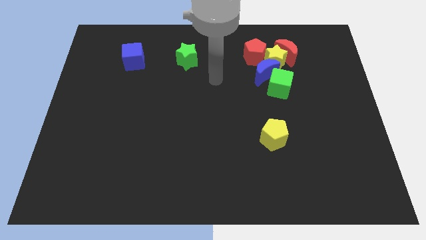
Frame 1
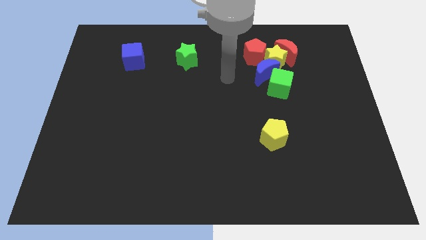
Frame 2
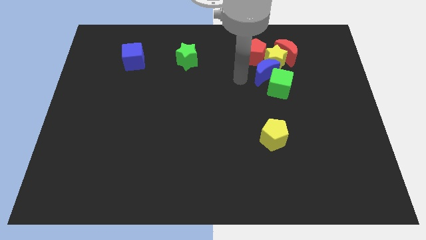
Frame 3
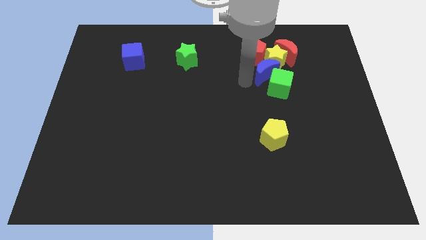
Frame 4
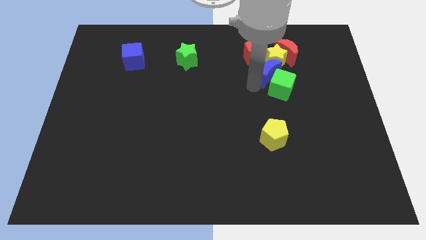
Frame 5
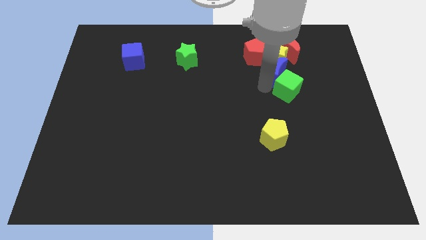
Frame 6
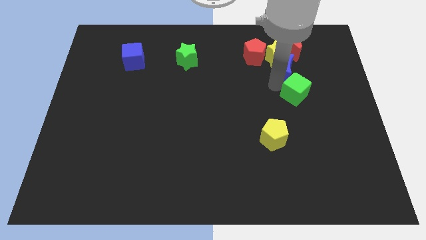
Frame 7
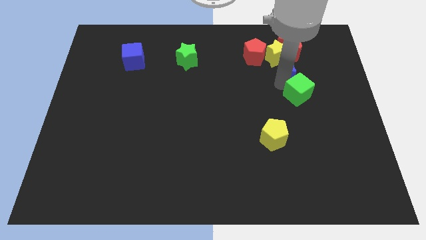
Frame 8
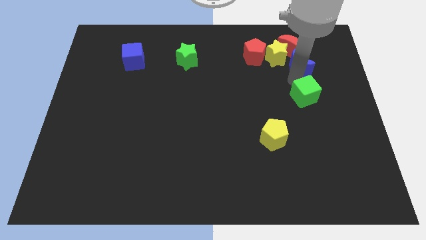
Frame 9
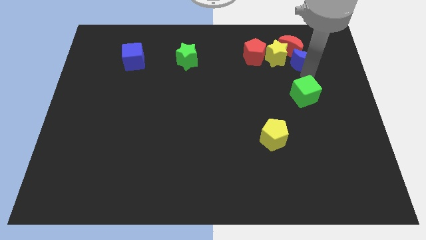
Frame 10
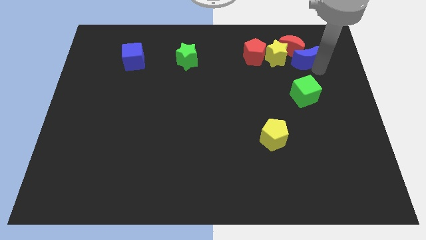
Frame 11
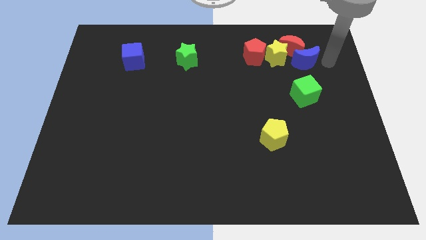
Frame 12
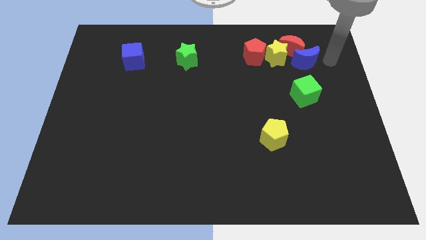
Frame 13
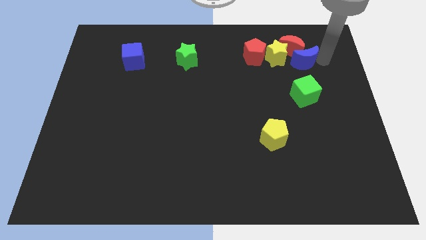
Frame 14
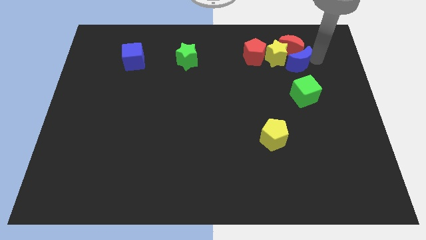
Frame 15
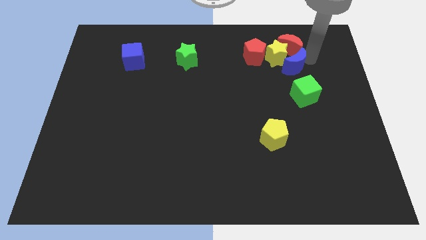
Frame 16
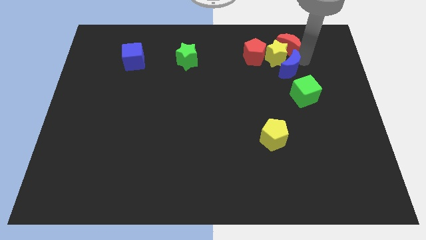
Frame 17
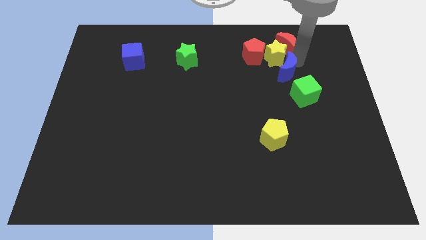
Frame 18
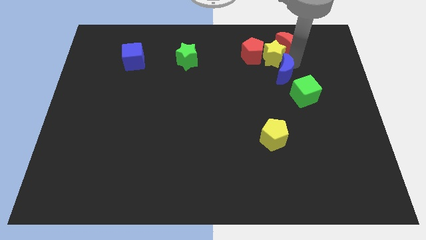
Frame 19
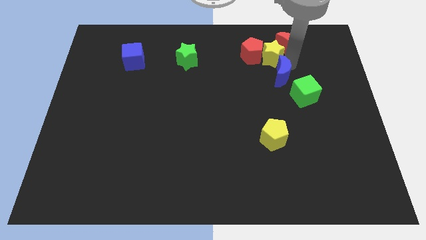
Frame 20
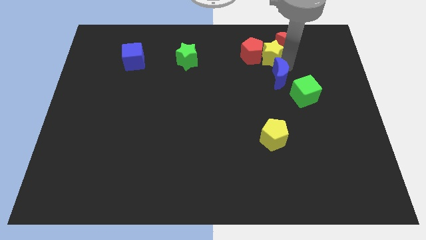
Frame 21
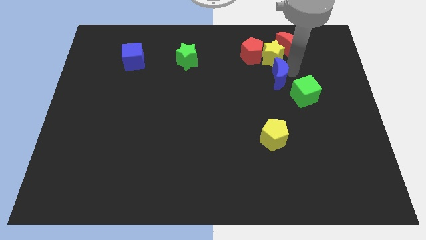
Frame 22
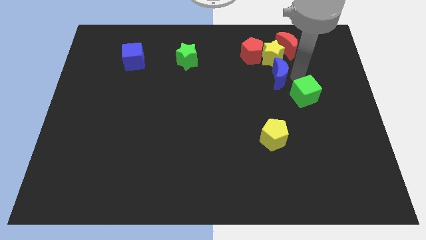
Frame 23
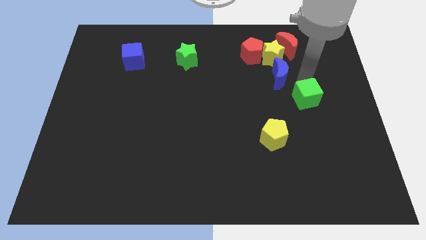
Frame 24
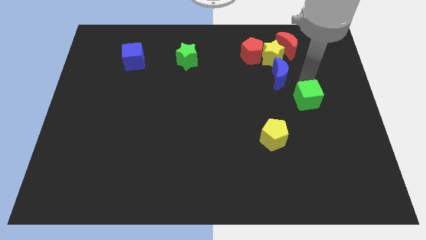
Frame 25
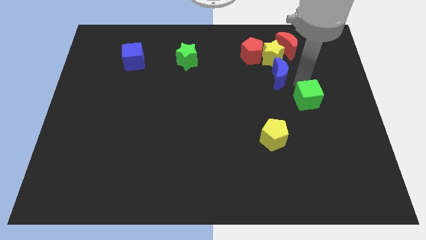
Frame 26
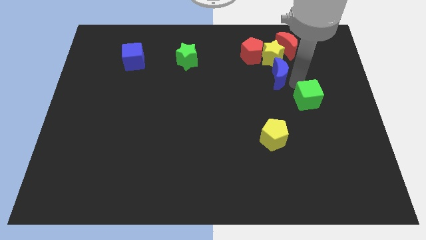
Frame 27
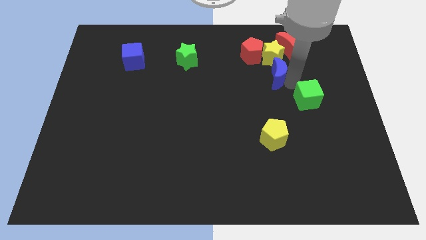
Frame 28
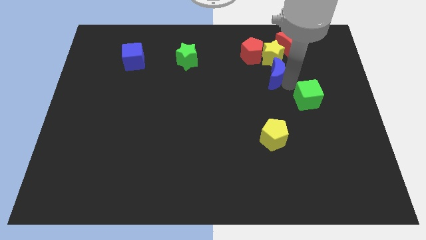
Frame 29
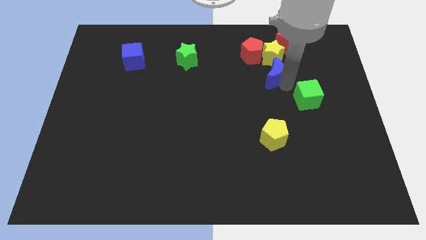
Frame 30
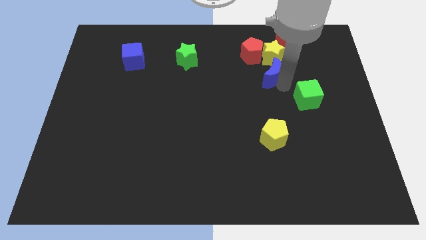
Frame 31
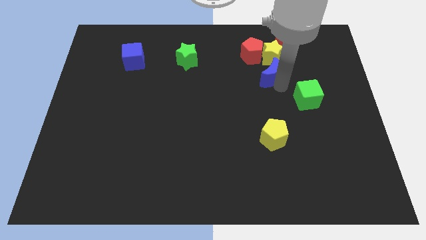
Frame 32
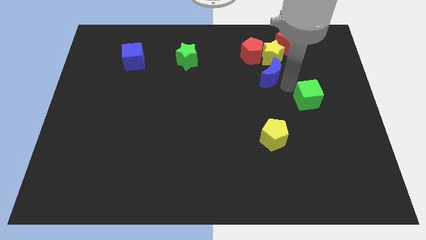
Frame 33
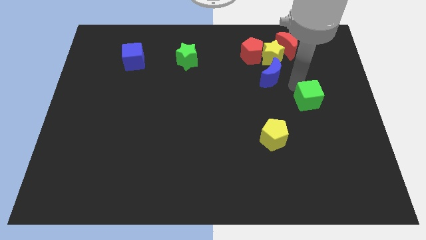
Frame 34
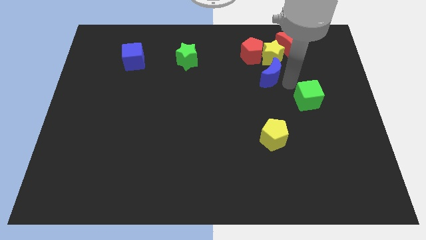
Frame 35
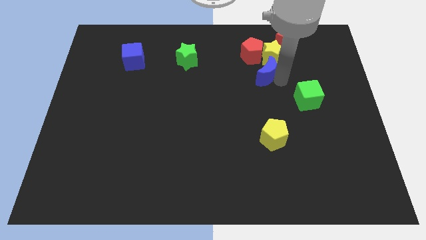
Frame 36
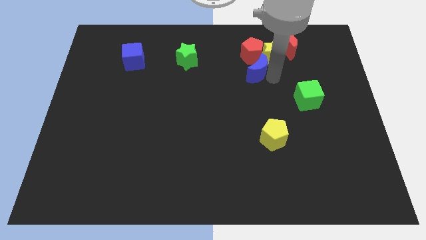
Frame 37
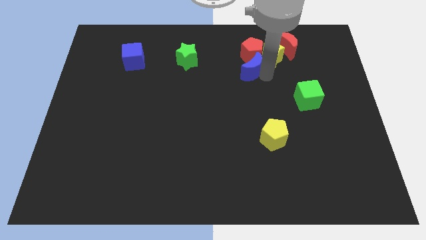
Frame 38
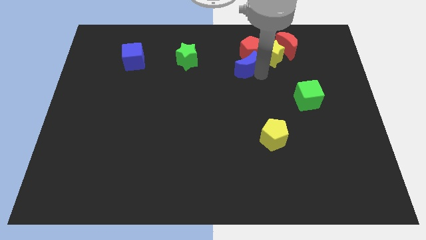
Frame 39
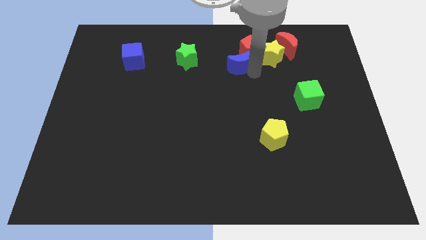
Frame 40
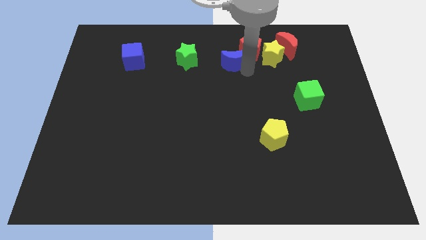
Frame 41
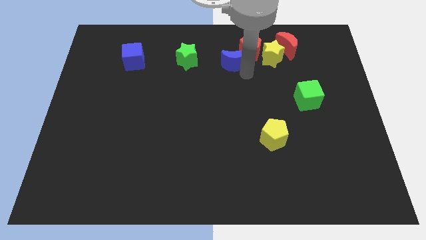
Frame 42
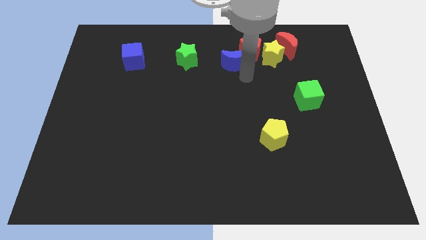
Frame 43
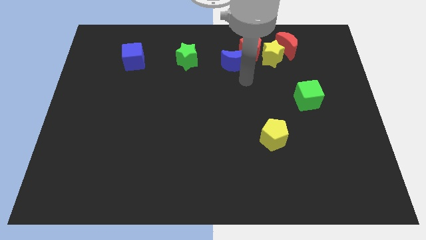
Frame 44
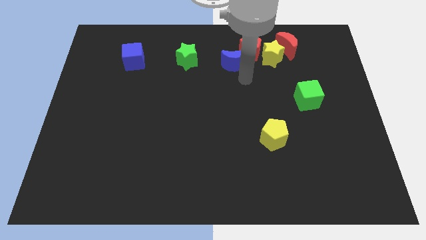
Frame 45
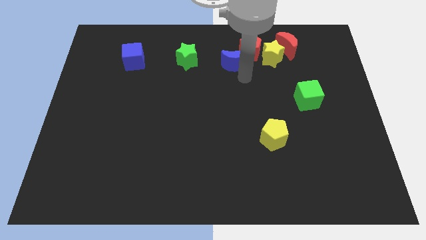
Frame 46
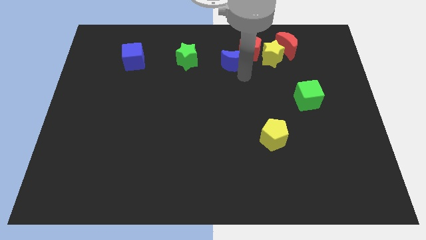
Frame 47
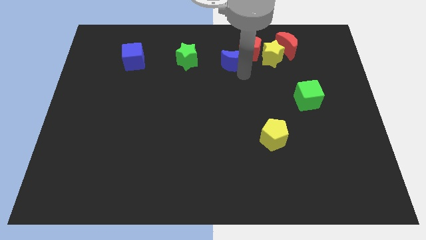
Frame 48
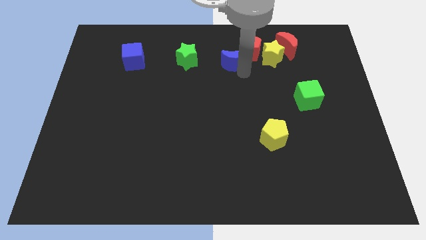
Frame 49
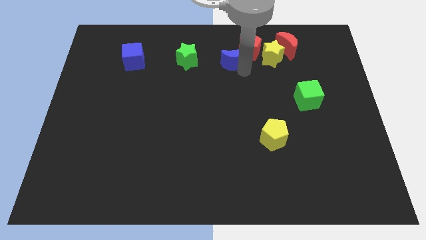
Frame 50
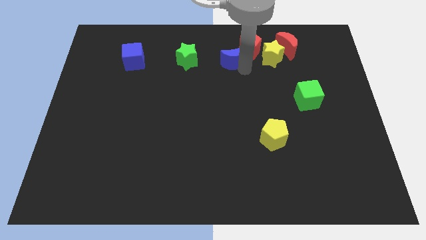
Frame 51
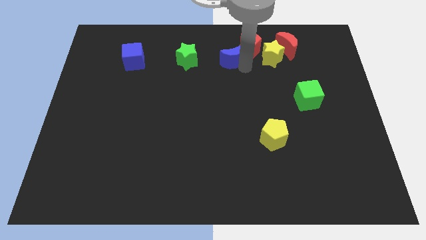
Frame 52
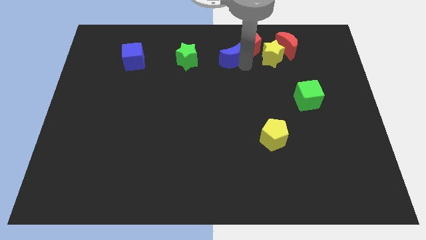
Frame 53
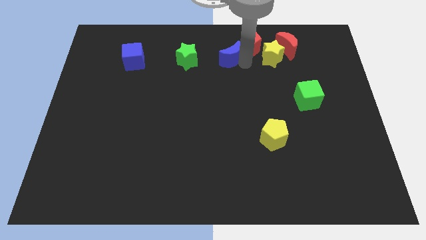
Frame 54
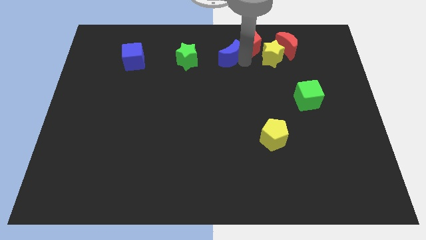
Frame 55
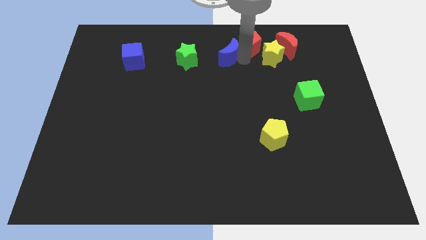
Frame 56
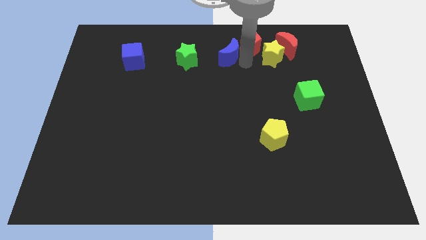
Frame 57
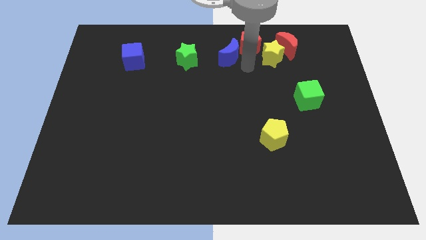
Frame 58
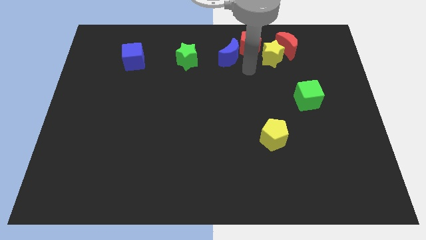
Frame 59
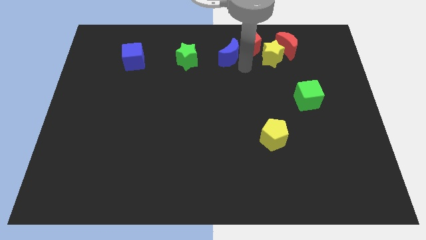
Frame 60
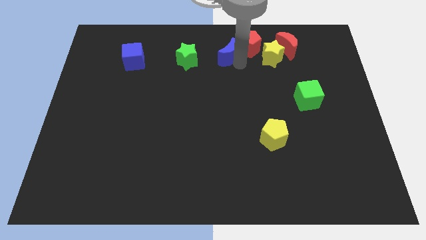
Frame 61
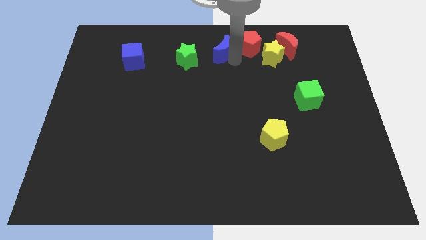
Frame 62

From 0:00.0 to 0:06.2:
push the blue moon to the towards your base

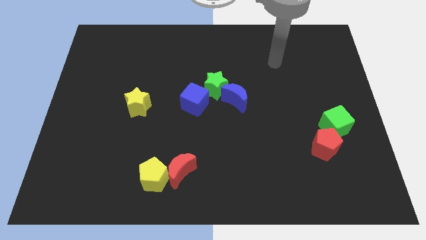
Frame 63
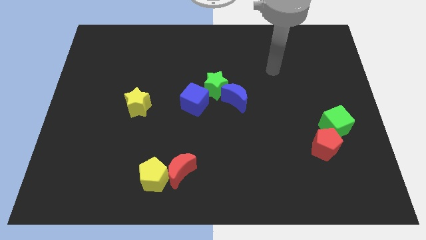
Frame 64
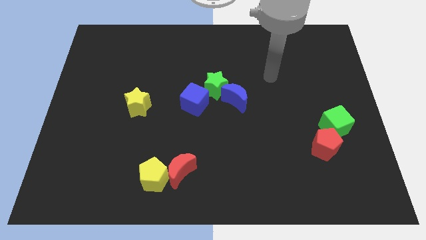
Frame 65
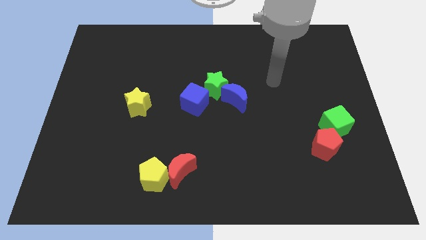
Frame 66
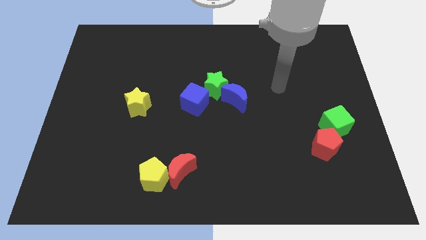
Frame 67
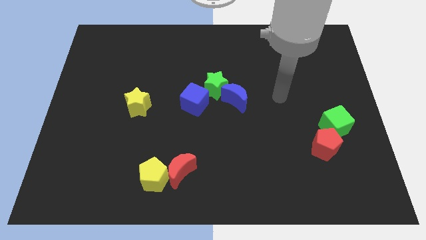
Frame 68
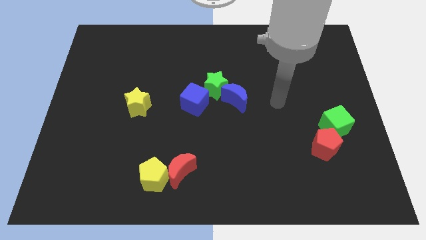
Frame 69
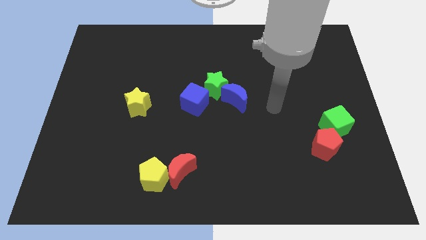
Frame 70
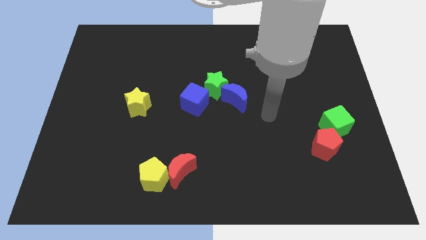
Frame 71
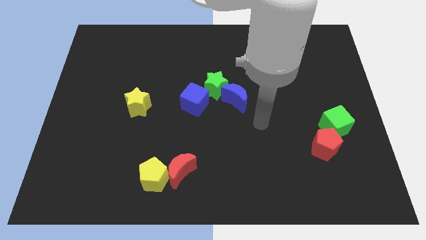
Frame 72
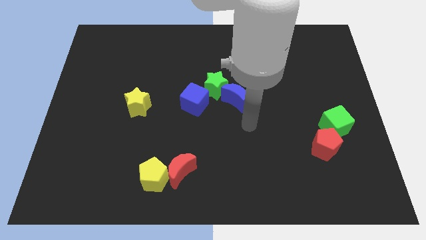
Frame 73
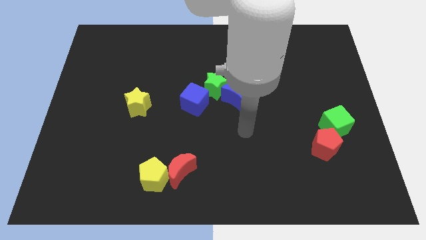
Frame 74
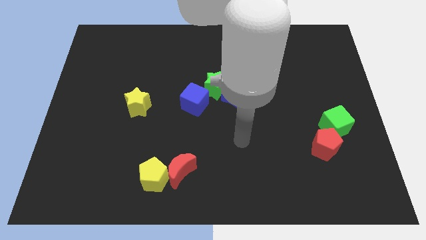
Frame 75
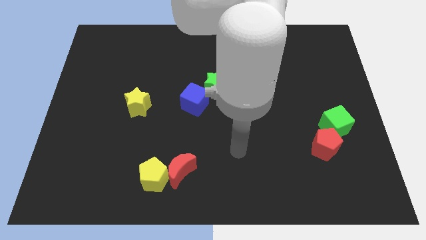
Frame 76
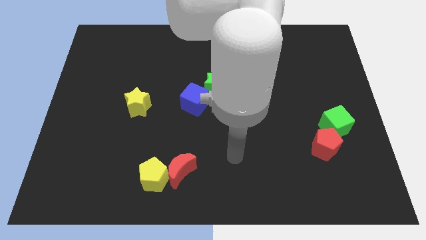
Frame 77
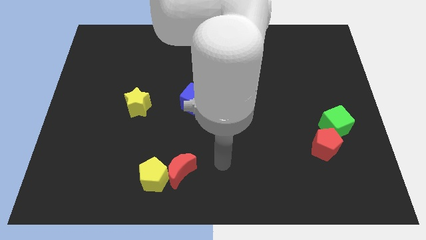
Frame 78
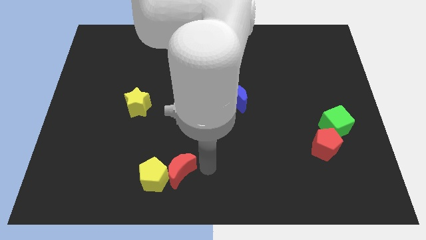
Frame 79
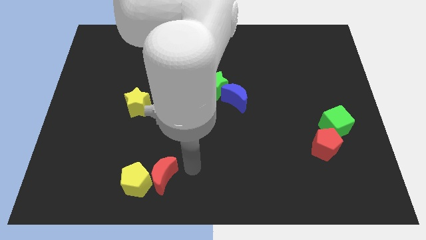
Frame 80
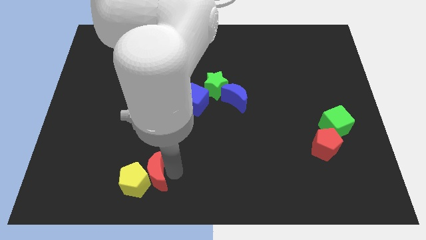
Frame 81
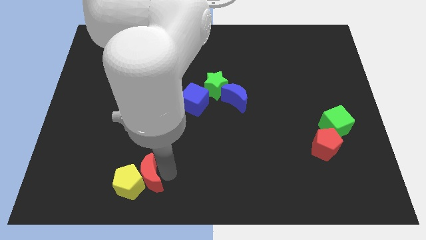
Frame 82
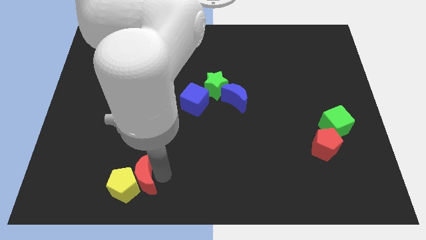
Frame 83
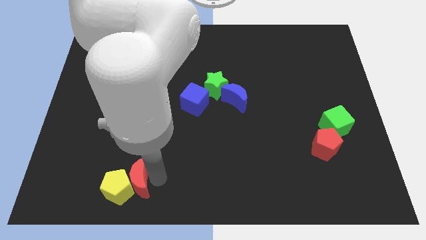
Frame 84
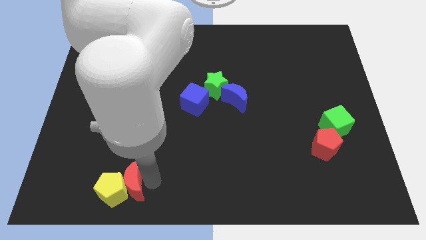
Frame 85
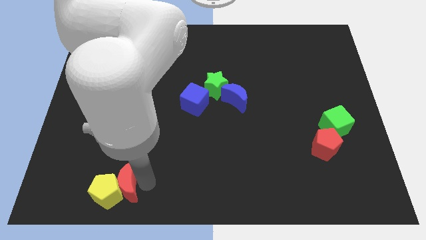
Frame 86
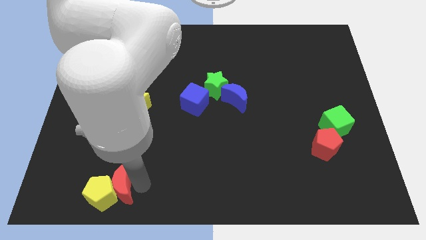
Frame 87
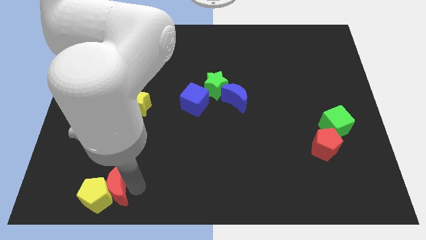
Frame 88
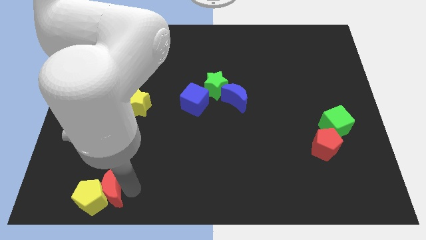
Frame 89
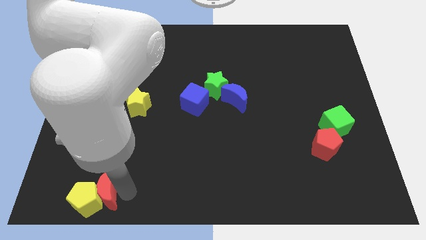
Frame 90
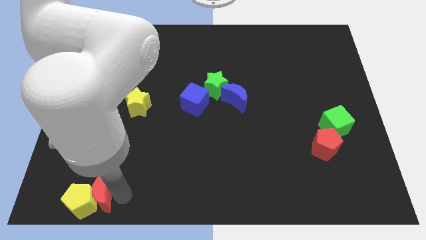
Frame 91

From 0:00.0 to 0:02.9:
slide the yellow pentagon to the bottom left
